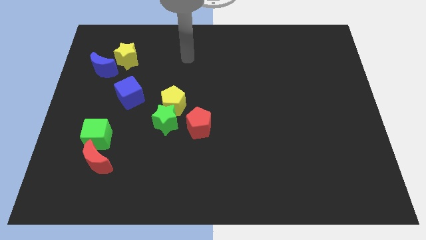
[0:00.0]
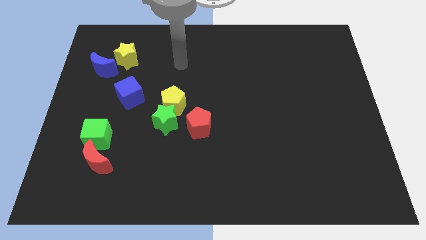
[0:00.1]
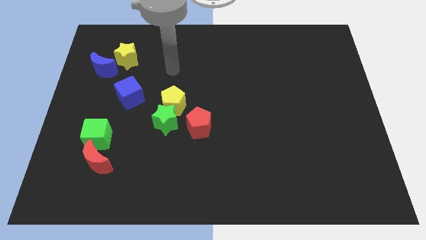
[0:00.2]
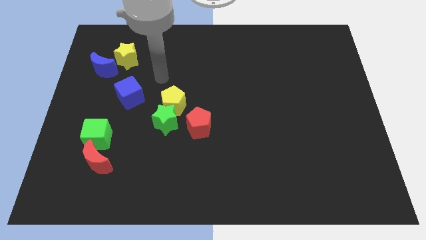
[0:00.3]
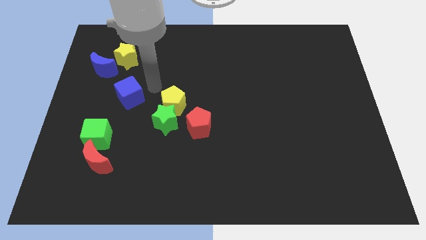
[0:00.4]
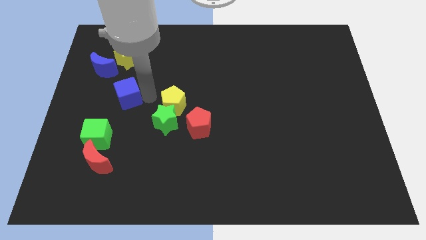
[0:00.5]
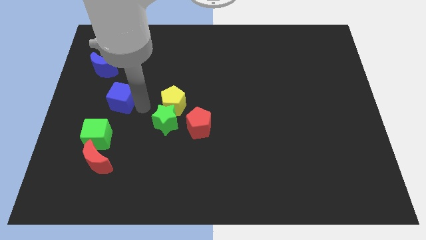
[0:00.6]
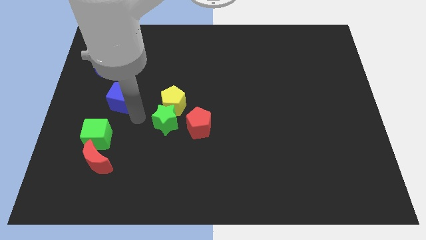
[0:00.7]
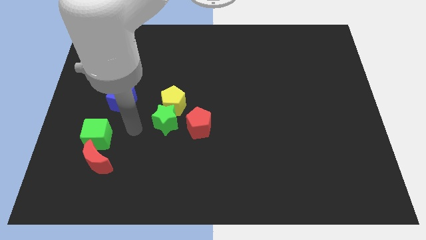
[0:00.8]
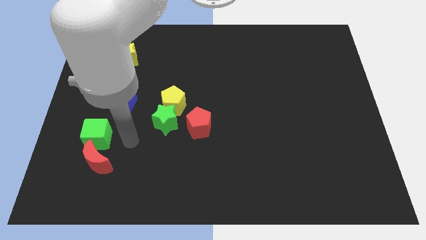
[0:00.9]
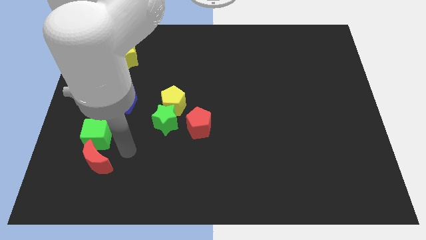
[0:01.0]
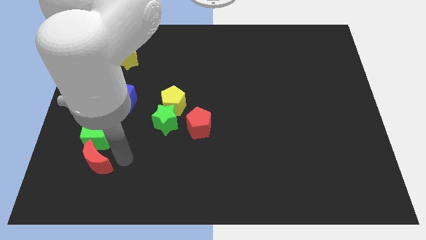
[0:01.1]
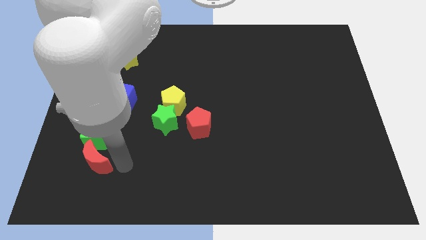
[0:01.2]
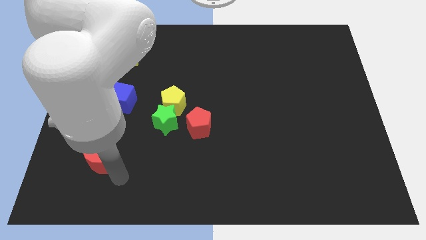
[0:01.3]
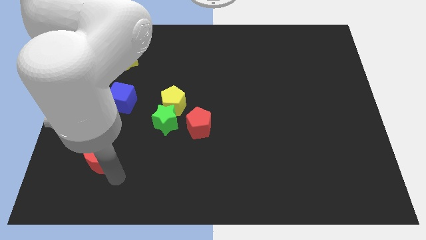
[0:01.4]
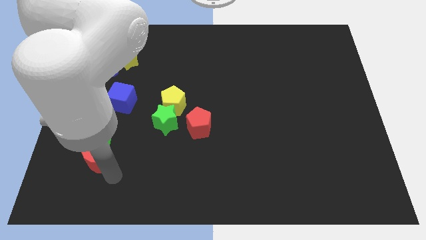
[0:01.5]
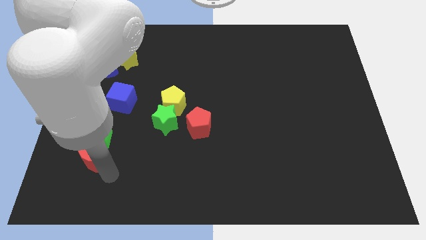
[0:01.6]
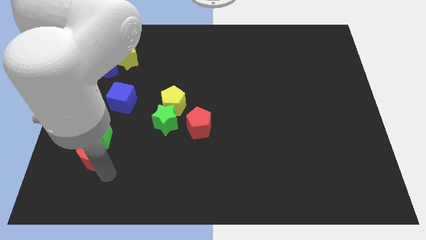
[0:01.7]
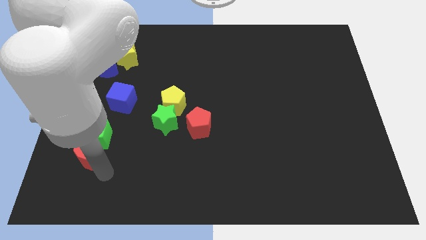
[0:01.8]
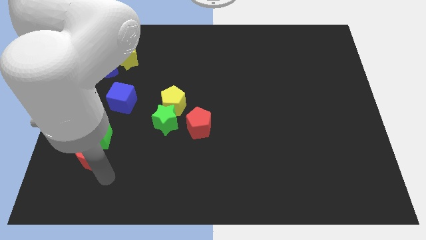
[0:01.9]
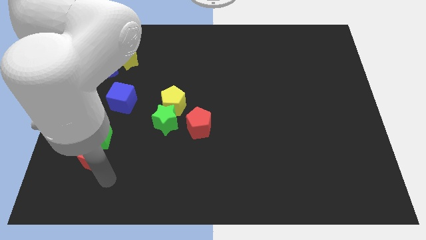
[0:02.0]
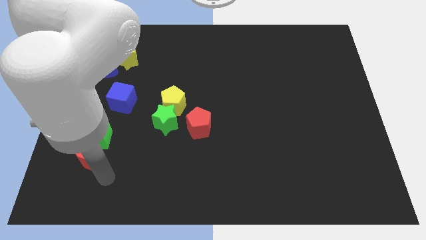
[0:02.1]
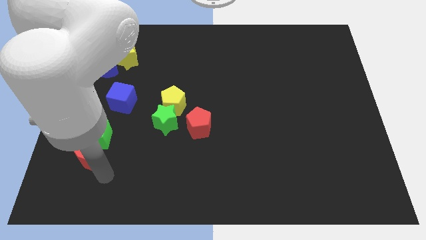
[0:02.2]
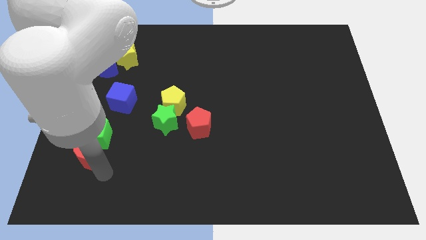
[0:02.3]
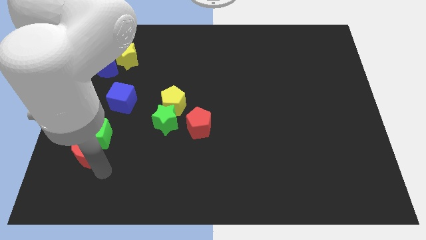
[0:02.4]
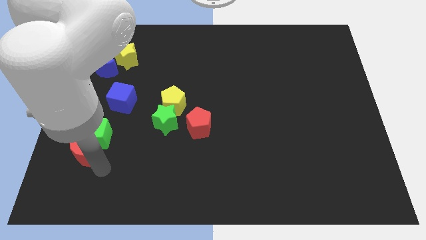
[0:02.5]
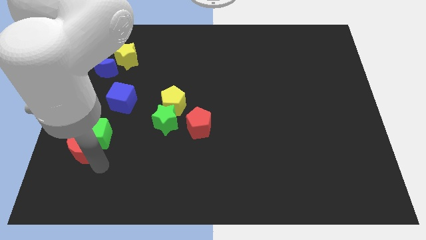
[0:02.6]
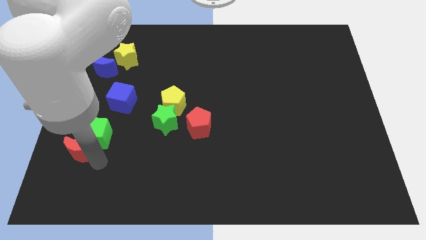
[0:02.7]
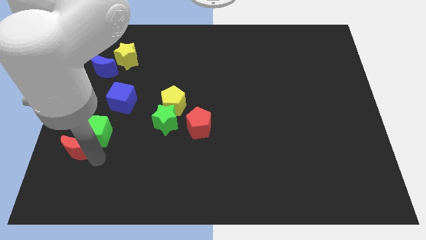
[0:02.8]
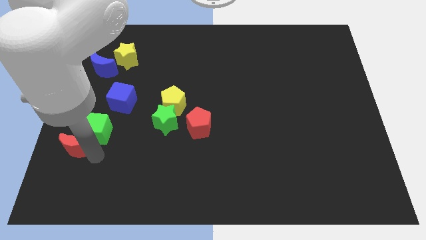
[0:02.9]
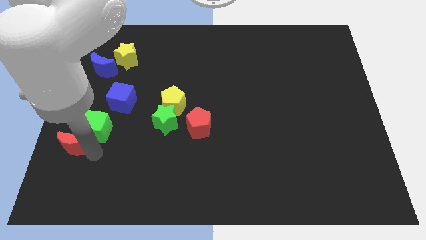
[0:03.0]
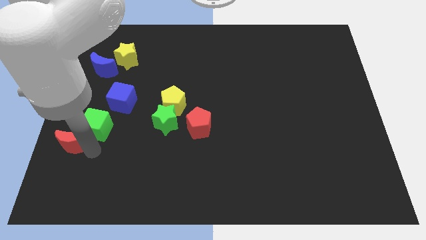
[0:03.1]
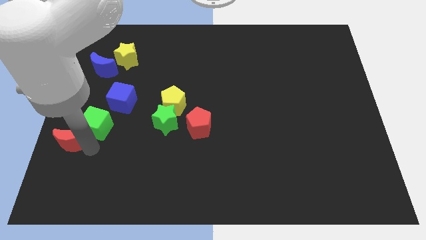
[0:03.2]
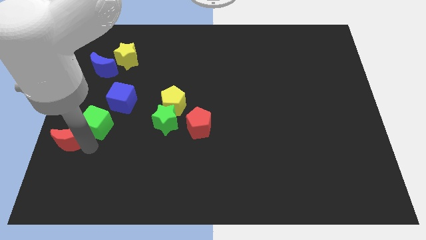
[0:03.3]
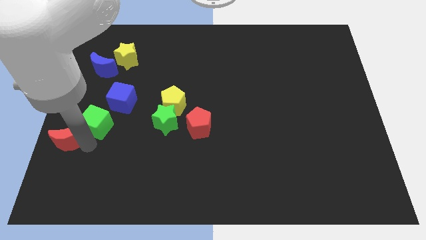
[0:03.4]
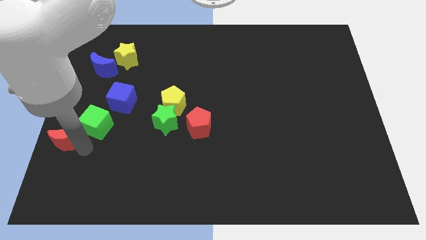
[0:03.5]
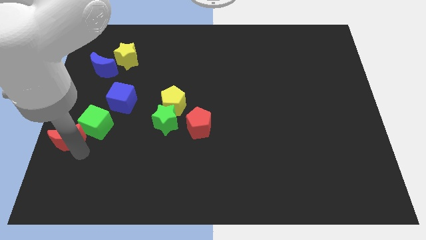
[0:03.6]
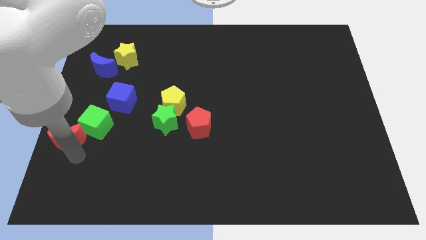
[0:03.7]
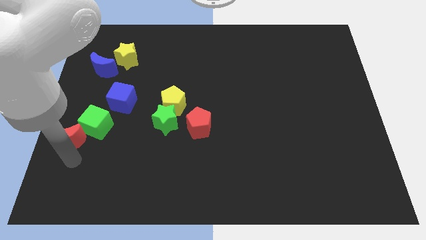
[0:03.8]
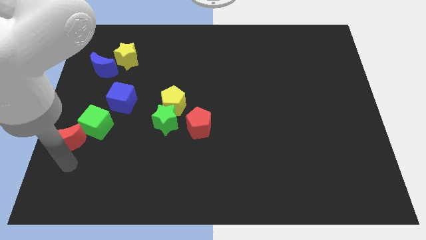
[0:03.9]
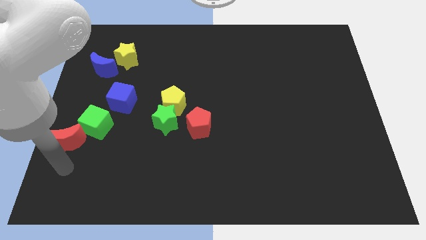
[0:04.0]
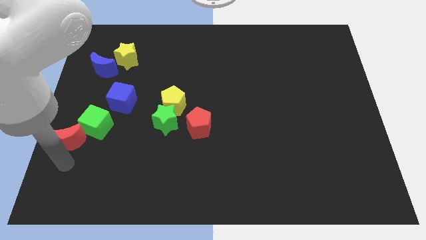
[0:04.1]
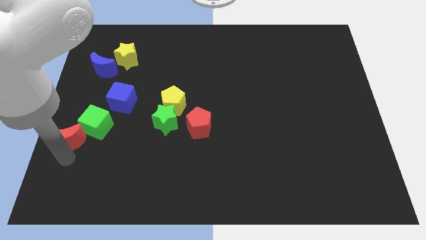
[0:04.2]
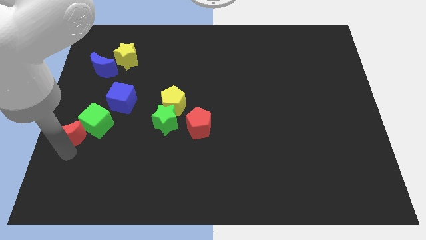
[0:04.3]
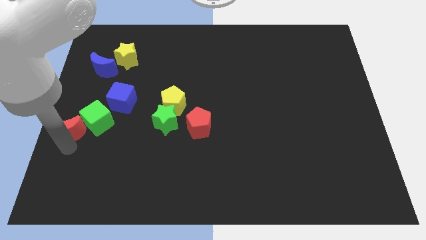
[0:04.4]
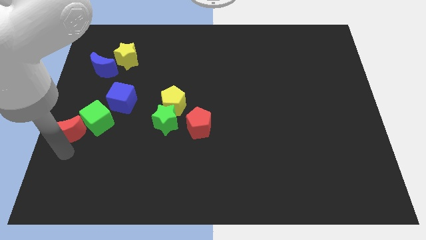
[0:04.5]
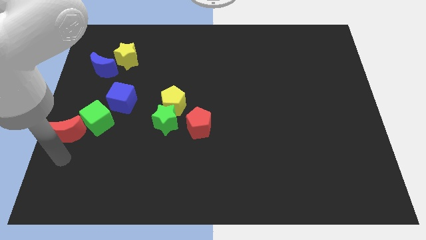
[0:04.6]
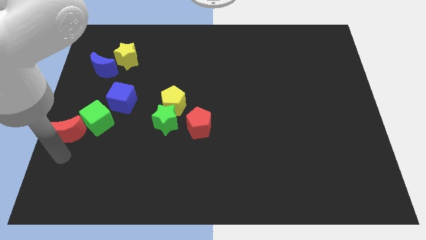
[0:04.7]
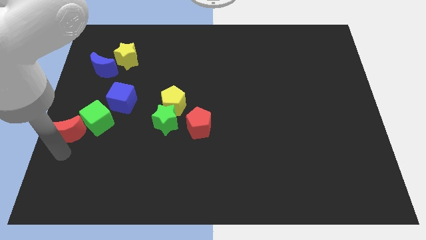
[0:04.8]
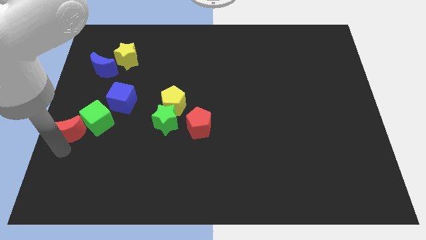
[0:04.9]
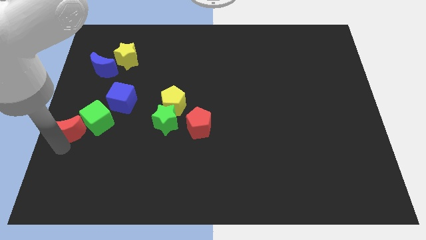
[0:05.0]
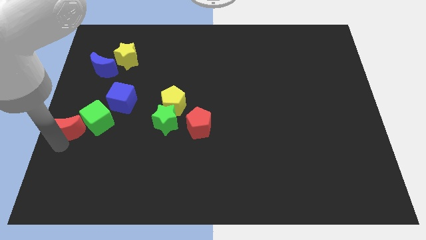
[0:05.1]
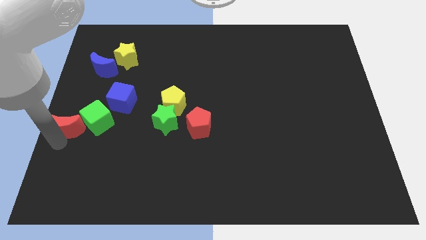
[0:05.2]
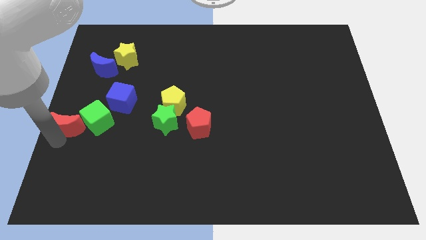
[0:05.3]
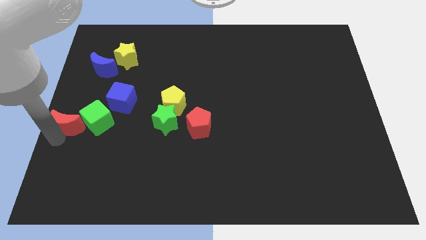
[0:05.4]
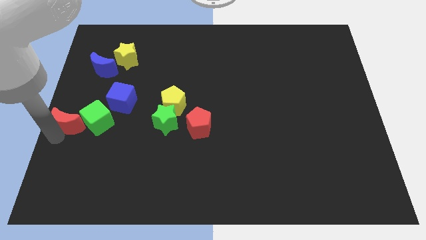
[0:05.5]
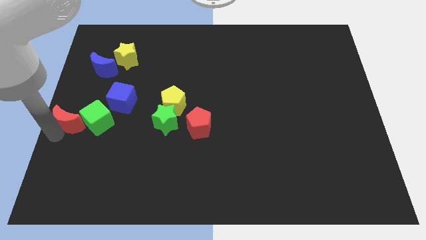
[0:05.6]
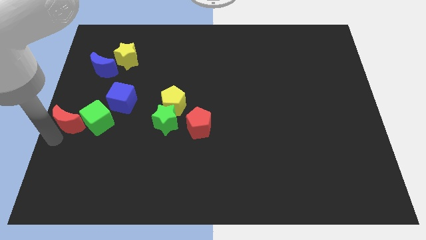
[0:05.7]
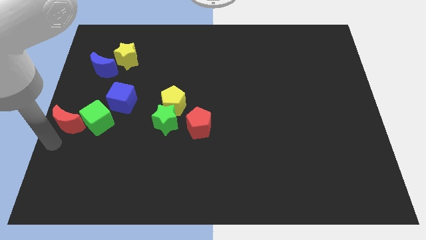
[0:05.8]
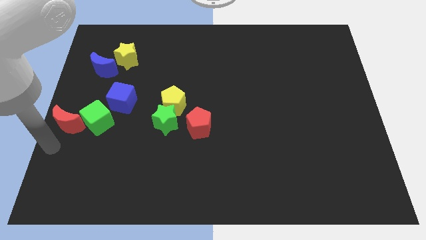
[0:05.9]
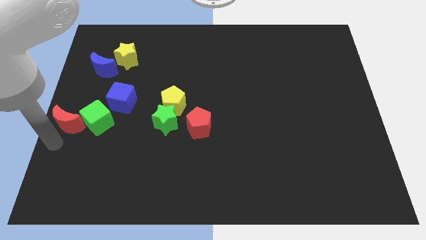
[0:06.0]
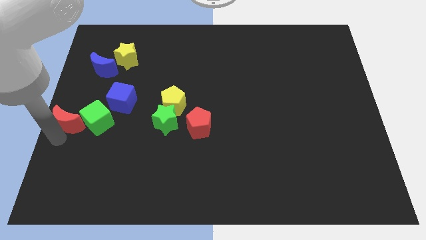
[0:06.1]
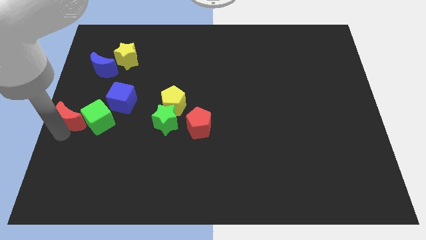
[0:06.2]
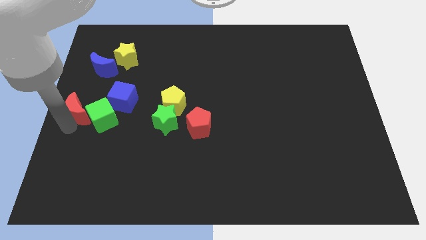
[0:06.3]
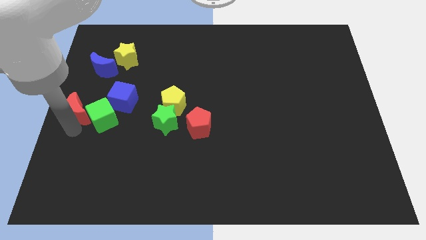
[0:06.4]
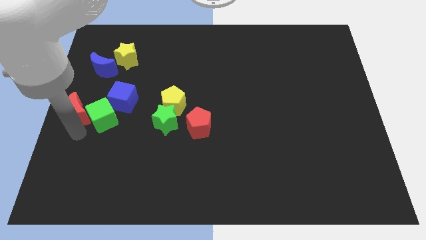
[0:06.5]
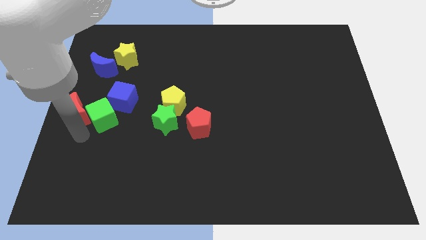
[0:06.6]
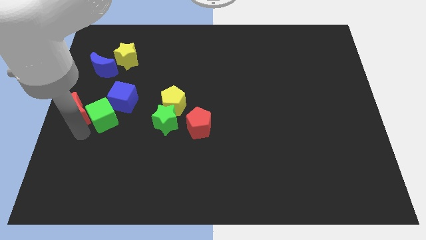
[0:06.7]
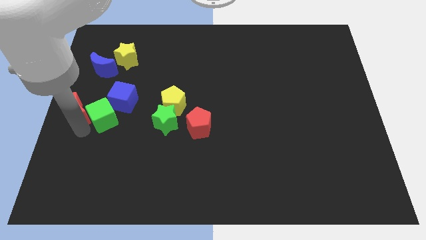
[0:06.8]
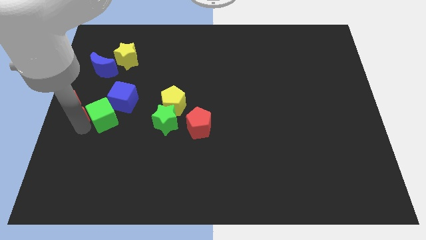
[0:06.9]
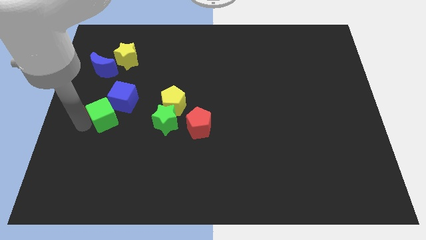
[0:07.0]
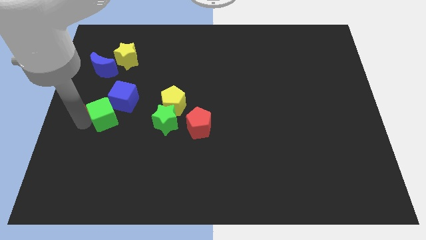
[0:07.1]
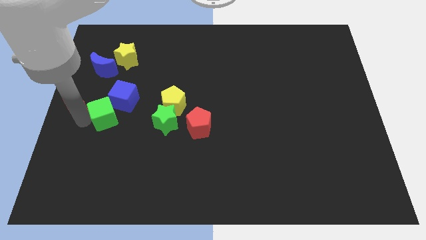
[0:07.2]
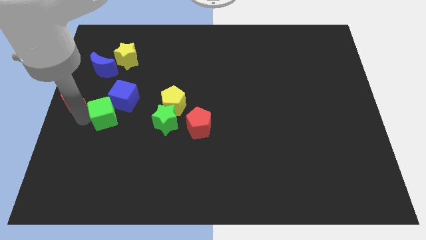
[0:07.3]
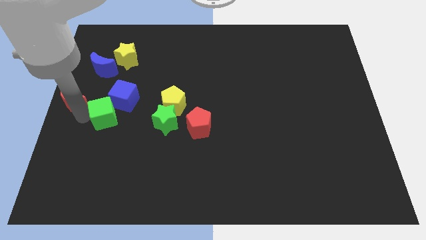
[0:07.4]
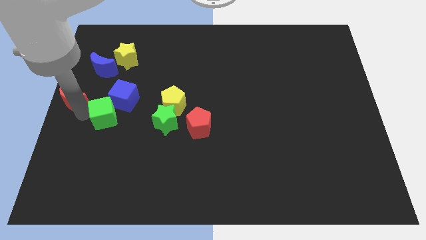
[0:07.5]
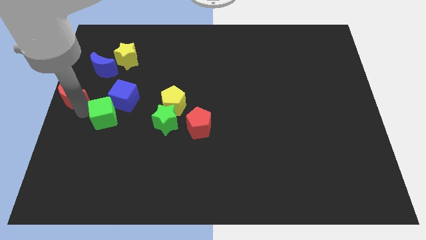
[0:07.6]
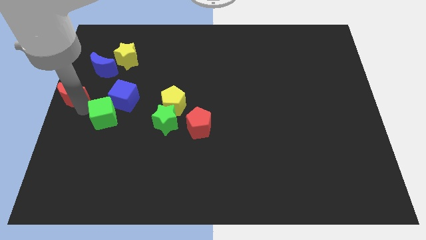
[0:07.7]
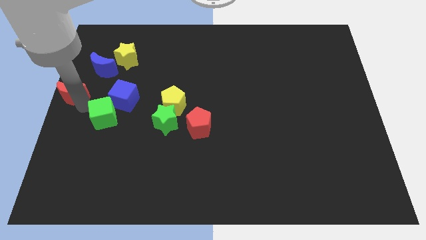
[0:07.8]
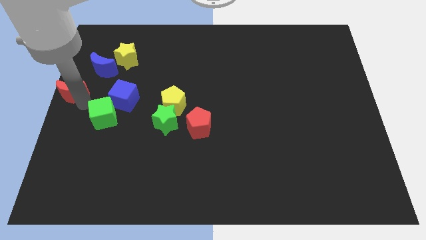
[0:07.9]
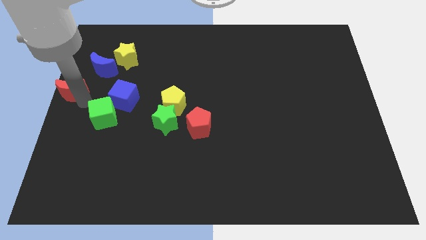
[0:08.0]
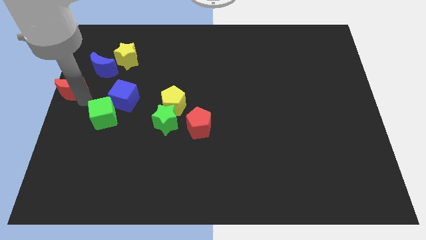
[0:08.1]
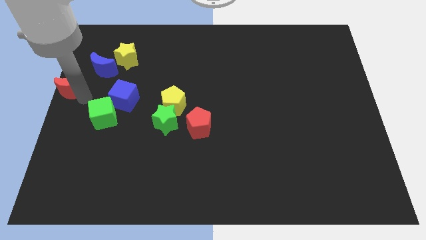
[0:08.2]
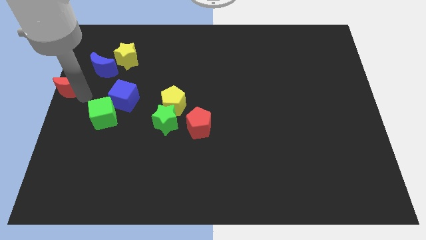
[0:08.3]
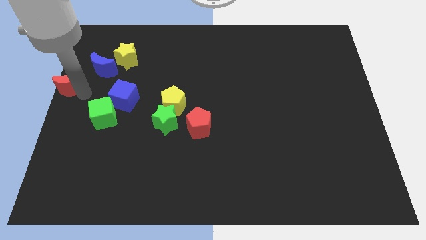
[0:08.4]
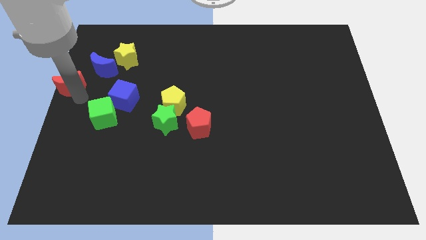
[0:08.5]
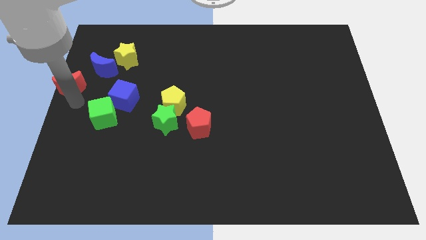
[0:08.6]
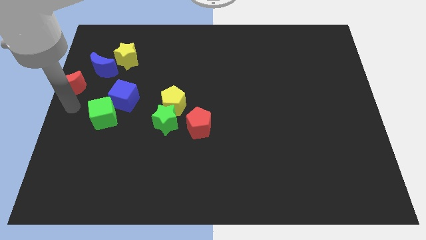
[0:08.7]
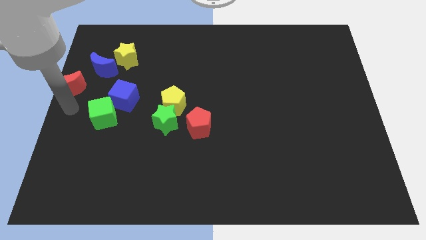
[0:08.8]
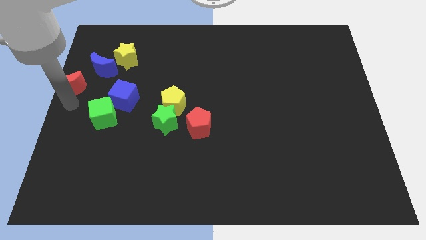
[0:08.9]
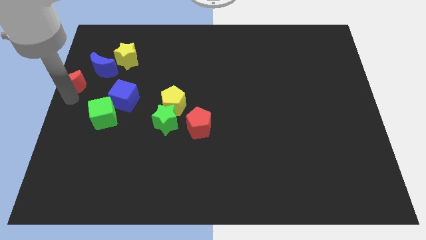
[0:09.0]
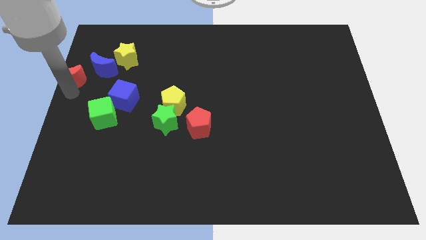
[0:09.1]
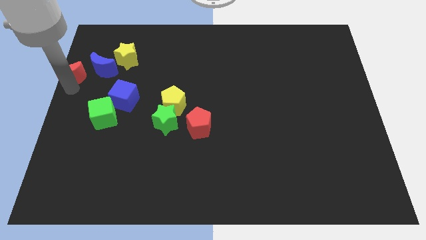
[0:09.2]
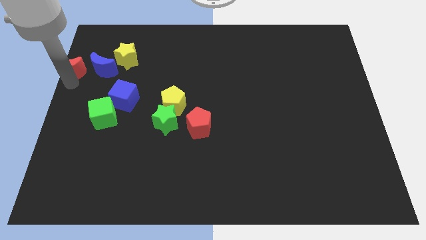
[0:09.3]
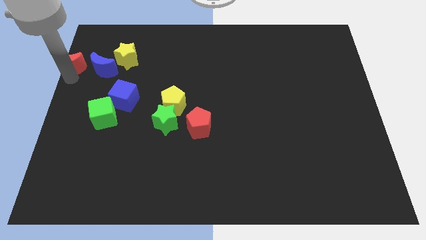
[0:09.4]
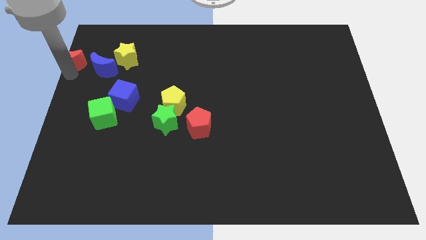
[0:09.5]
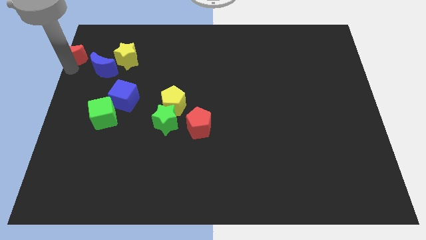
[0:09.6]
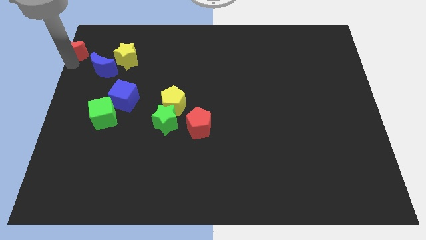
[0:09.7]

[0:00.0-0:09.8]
put the red moon to the top left of the board
